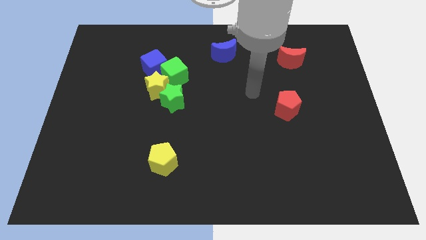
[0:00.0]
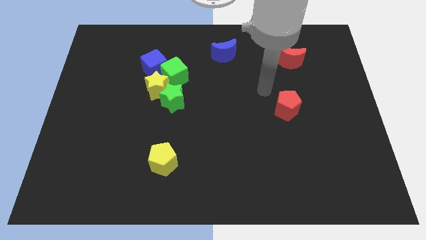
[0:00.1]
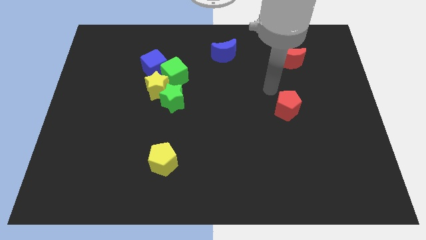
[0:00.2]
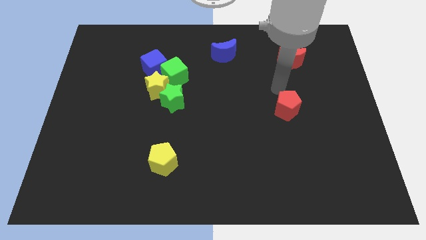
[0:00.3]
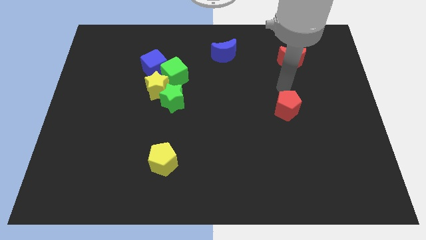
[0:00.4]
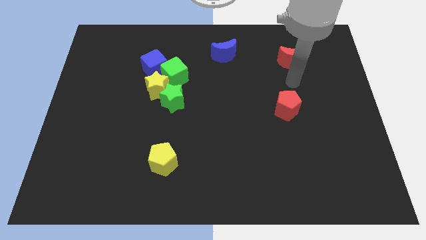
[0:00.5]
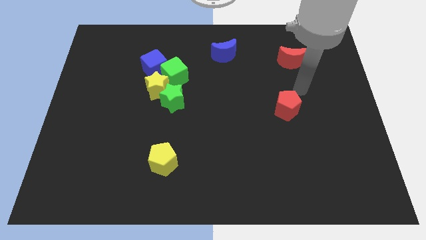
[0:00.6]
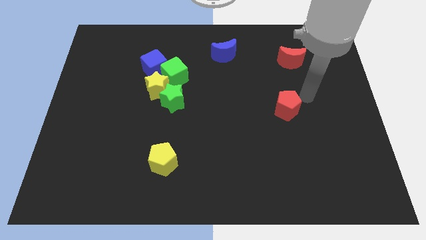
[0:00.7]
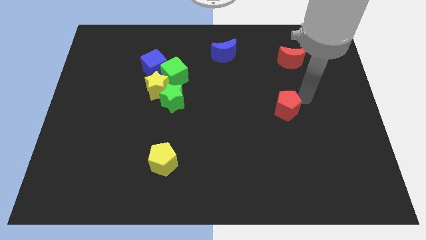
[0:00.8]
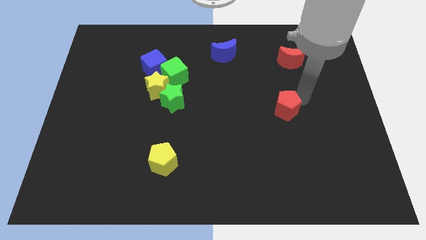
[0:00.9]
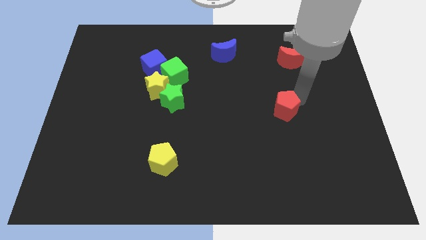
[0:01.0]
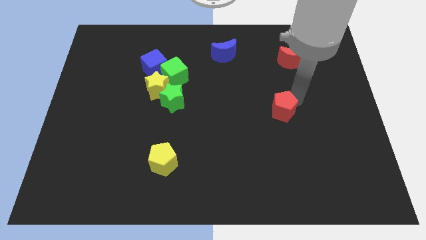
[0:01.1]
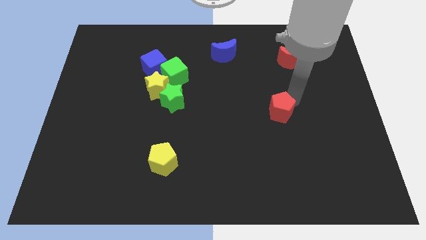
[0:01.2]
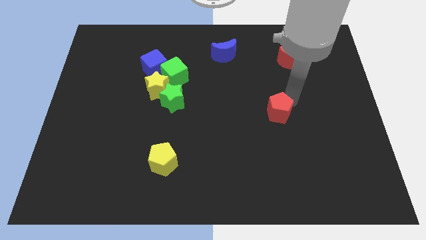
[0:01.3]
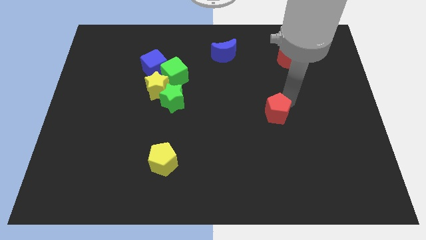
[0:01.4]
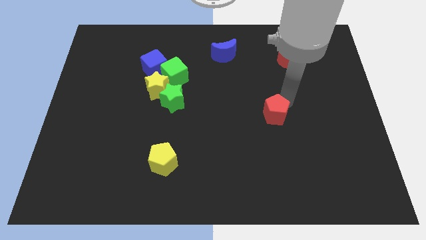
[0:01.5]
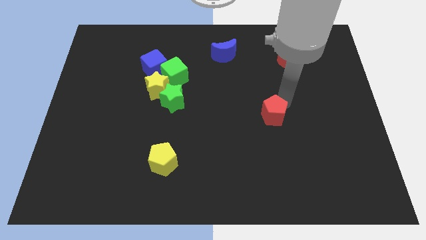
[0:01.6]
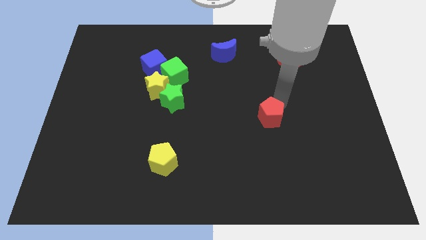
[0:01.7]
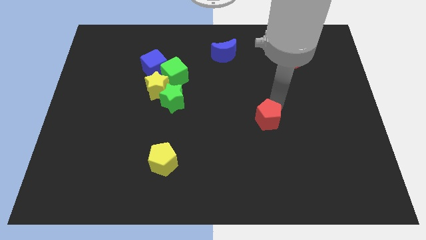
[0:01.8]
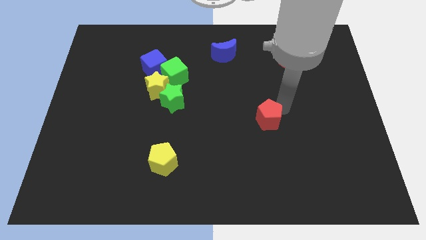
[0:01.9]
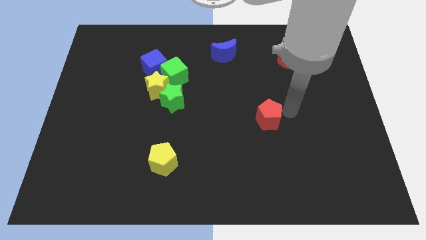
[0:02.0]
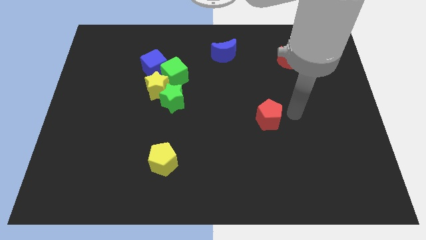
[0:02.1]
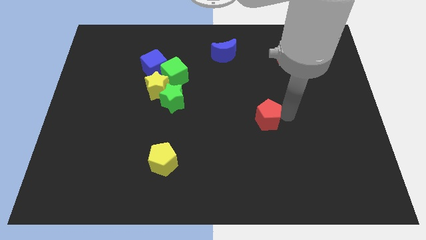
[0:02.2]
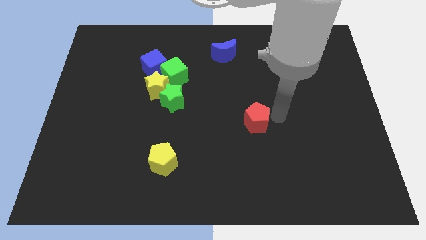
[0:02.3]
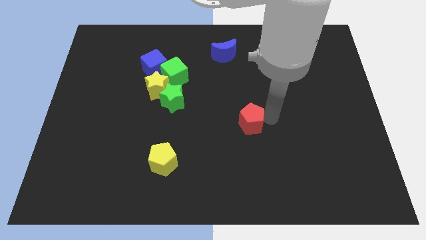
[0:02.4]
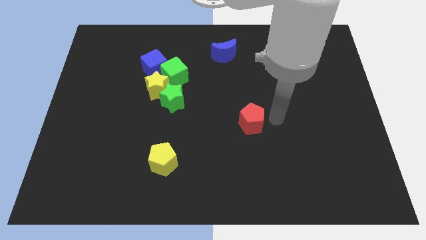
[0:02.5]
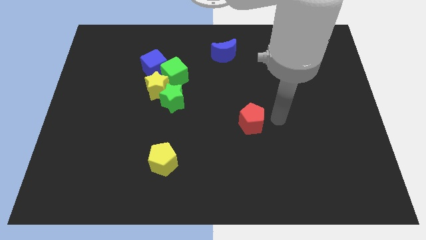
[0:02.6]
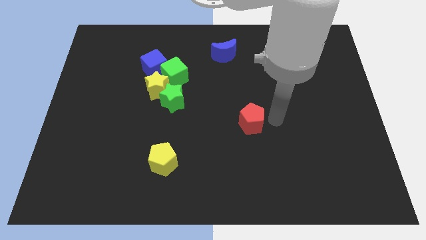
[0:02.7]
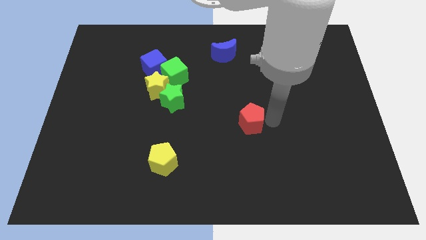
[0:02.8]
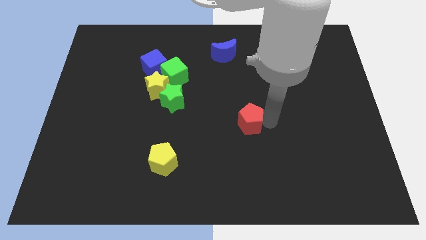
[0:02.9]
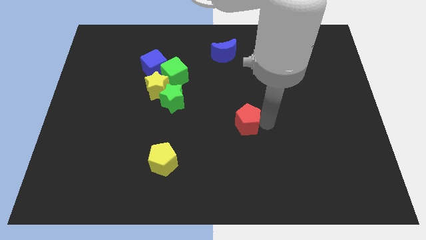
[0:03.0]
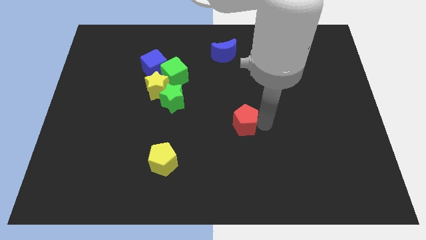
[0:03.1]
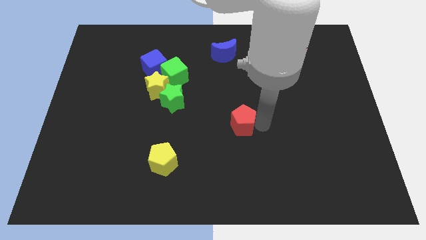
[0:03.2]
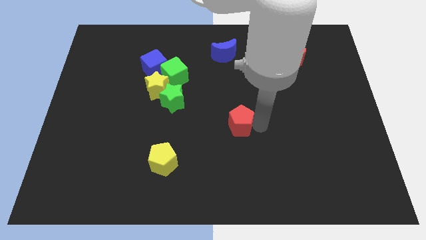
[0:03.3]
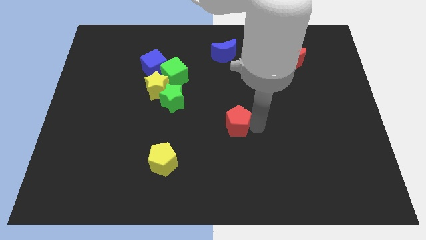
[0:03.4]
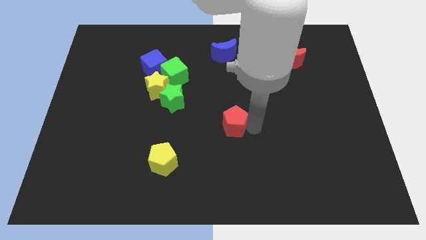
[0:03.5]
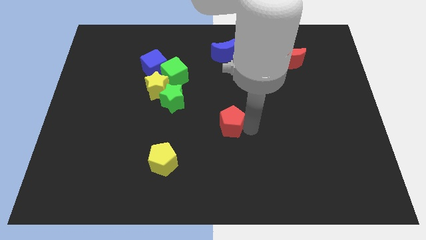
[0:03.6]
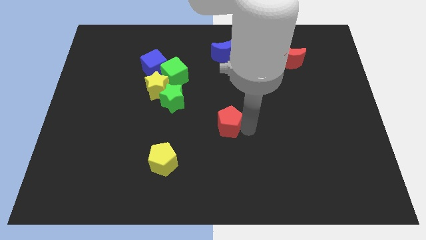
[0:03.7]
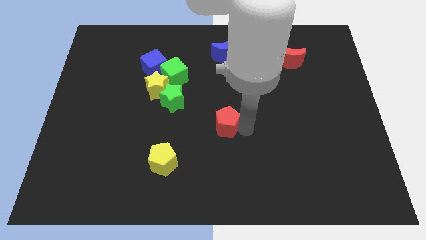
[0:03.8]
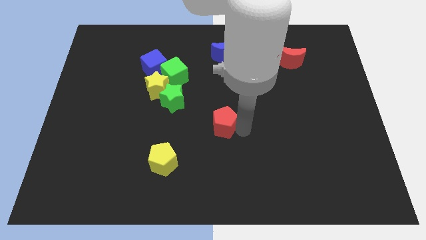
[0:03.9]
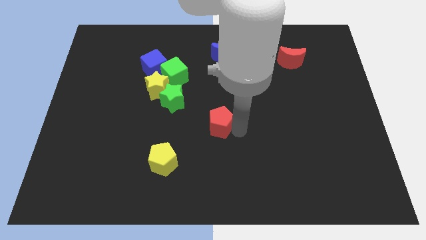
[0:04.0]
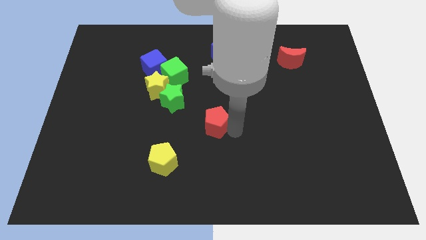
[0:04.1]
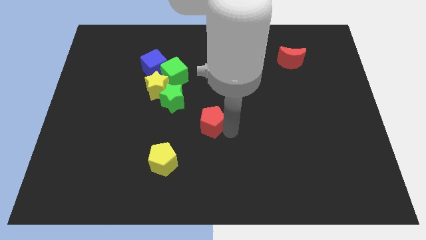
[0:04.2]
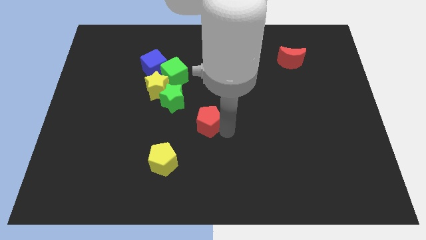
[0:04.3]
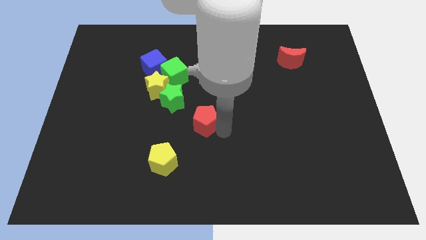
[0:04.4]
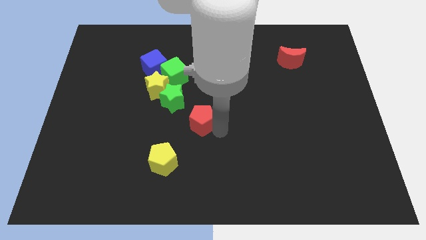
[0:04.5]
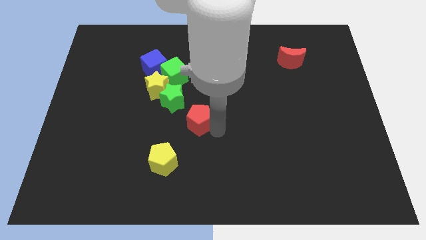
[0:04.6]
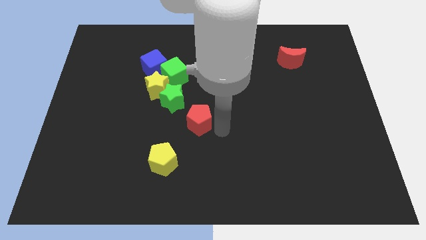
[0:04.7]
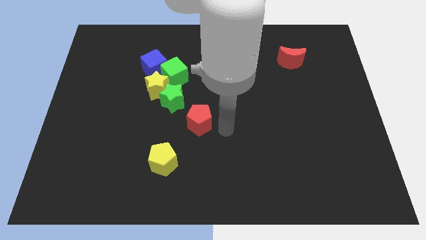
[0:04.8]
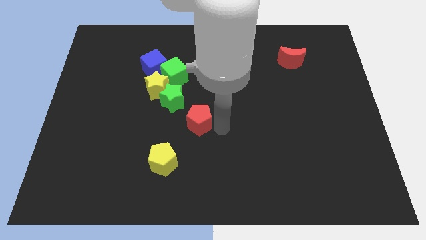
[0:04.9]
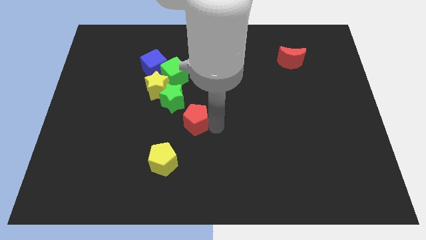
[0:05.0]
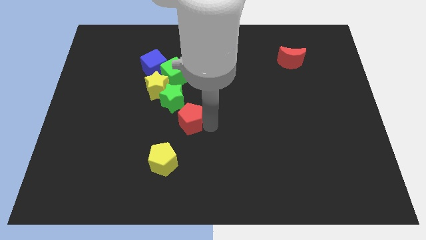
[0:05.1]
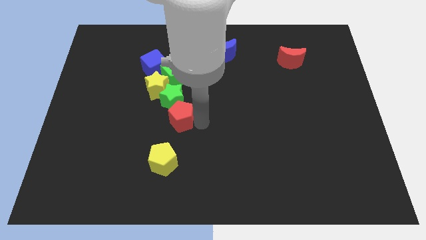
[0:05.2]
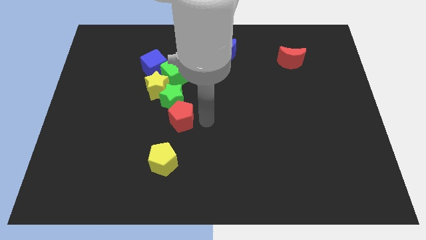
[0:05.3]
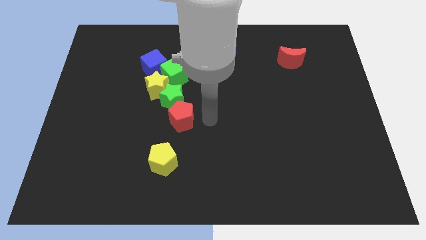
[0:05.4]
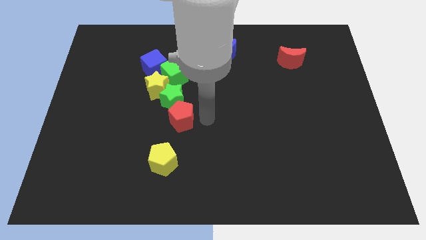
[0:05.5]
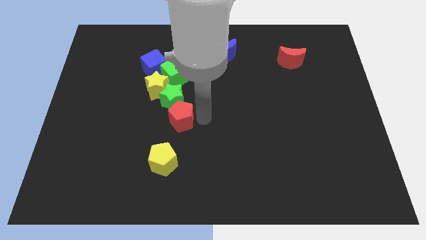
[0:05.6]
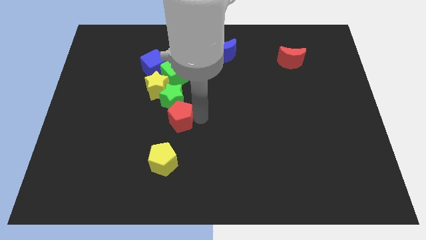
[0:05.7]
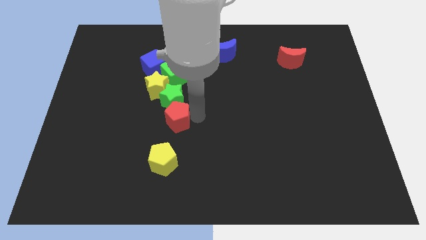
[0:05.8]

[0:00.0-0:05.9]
slide the red pentagon to the bottom left side of the green star

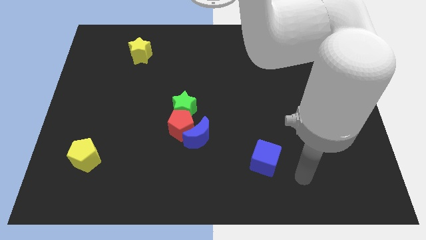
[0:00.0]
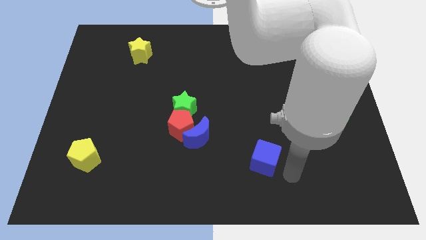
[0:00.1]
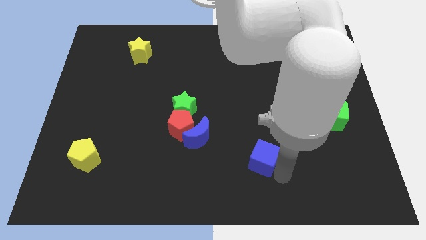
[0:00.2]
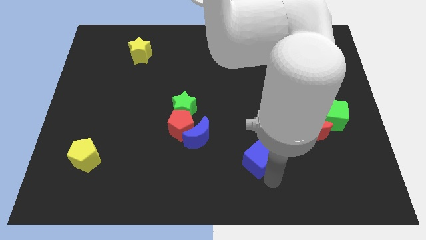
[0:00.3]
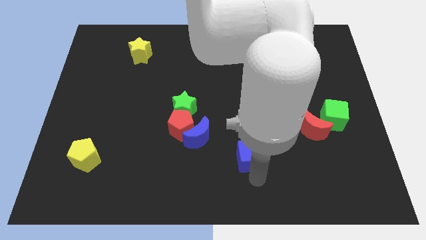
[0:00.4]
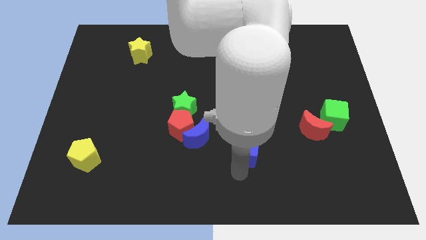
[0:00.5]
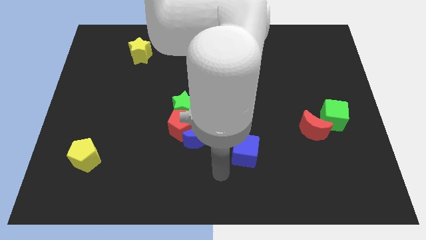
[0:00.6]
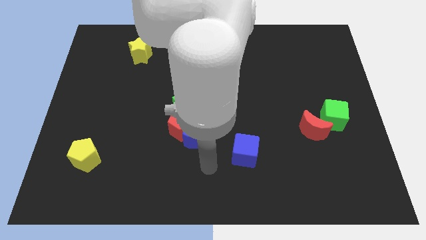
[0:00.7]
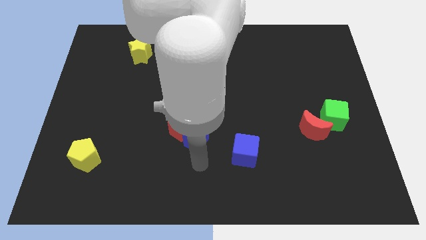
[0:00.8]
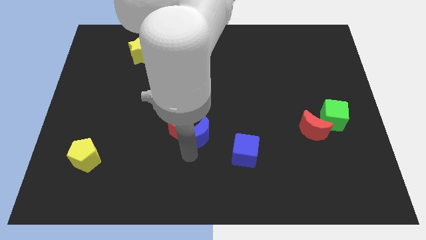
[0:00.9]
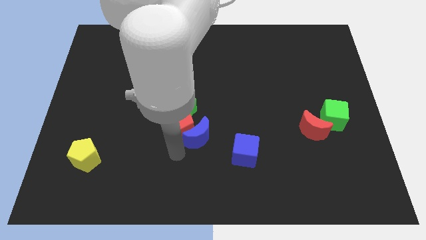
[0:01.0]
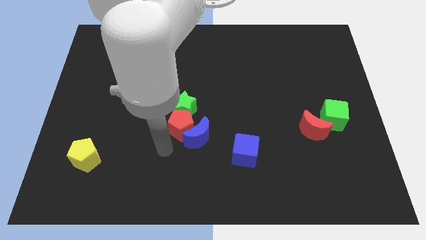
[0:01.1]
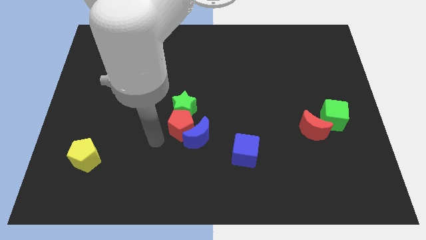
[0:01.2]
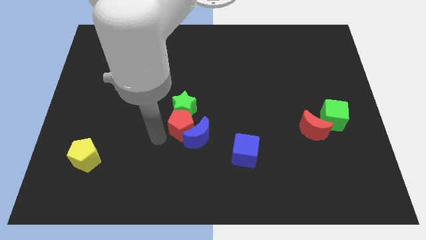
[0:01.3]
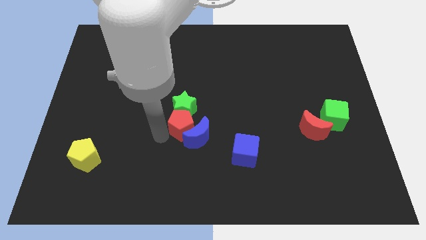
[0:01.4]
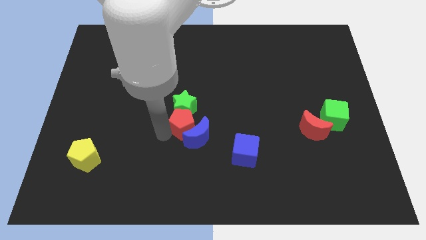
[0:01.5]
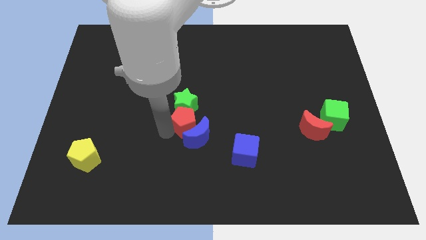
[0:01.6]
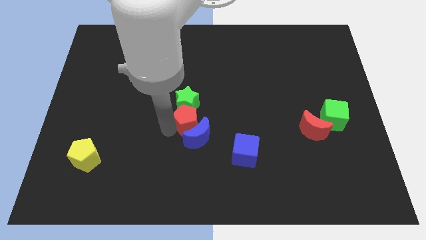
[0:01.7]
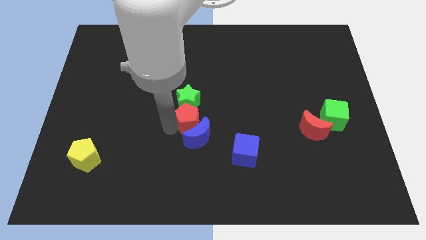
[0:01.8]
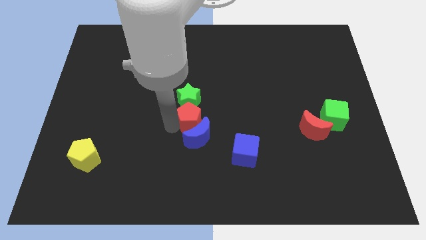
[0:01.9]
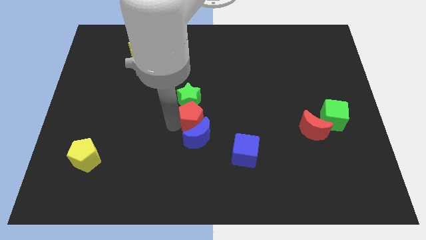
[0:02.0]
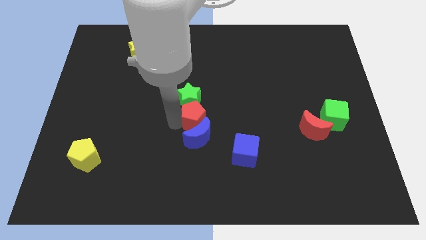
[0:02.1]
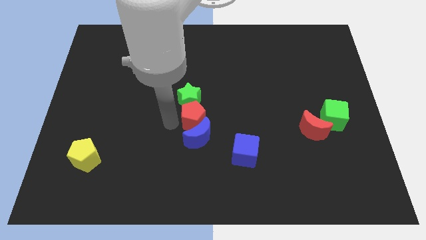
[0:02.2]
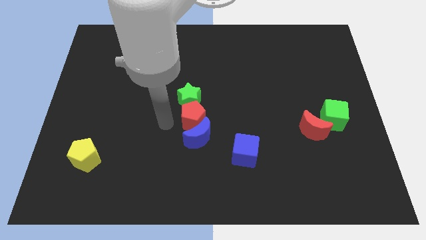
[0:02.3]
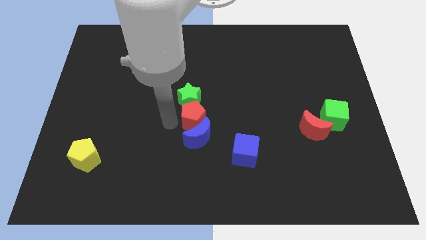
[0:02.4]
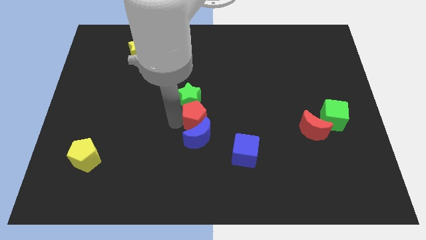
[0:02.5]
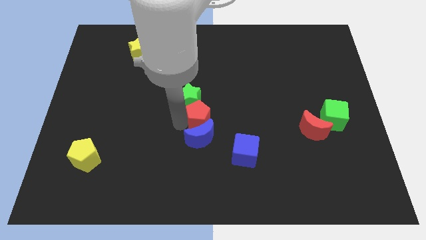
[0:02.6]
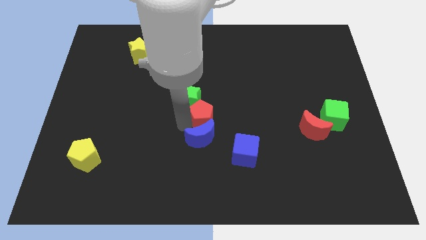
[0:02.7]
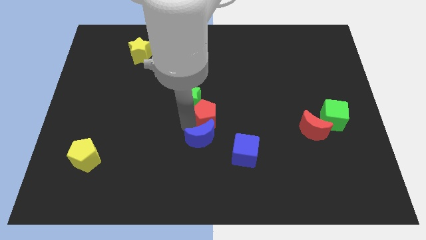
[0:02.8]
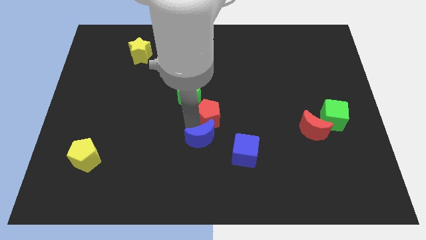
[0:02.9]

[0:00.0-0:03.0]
move the red pentagon just right of the green star
